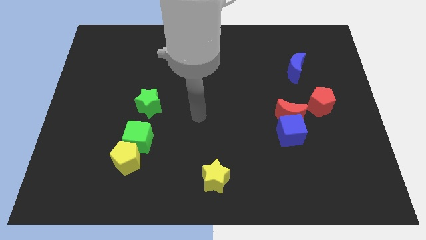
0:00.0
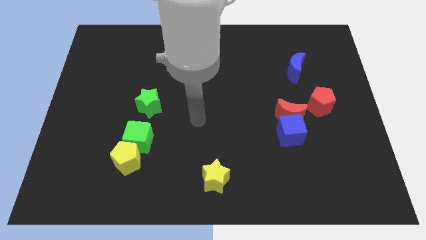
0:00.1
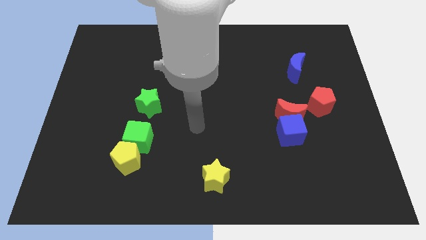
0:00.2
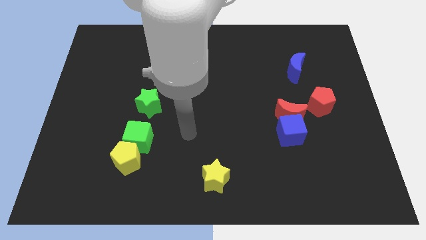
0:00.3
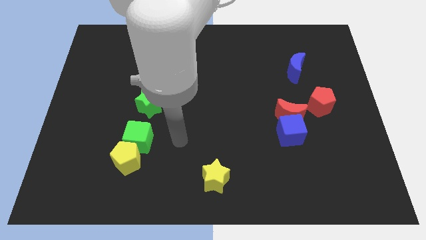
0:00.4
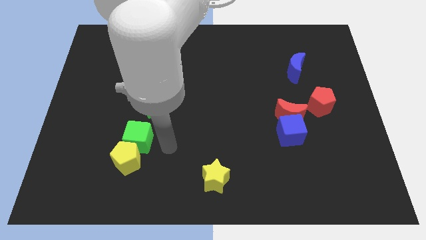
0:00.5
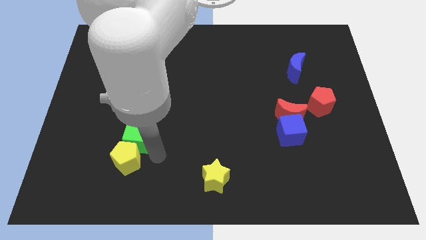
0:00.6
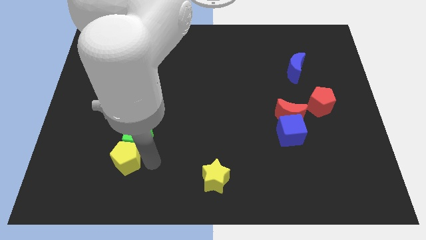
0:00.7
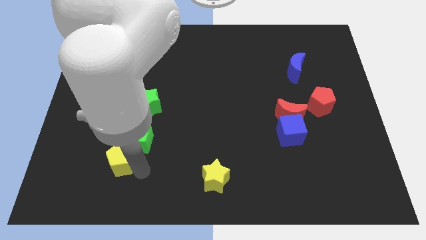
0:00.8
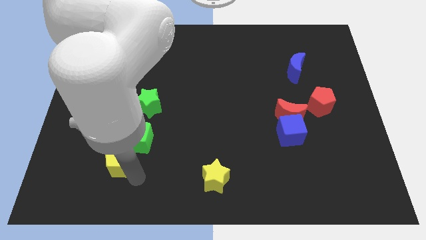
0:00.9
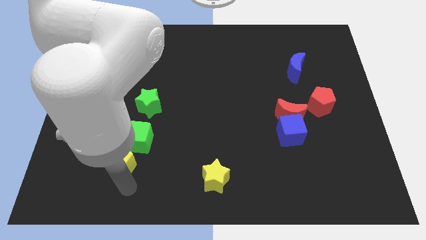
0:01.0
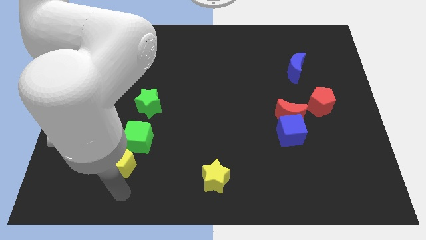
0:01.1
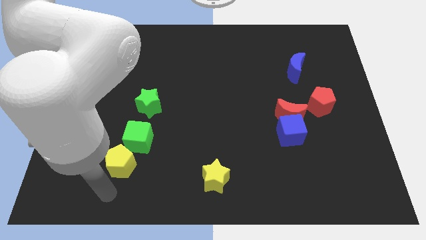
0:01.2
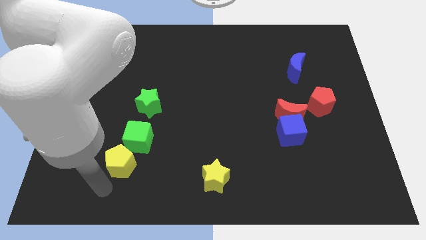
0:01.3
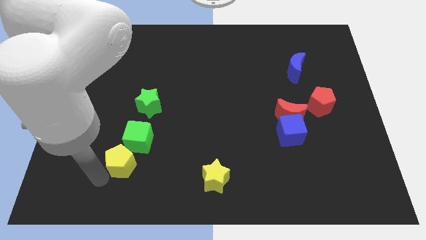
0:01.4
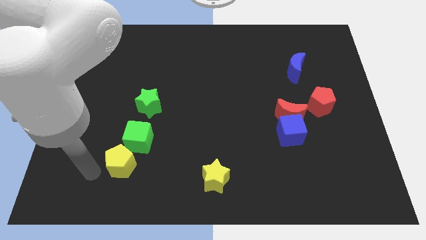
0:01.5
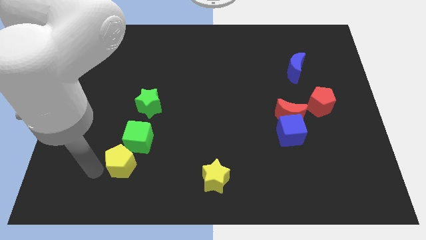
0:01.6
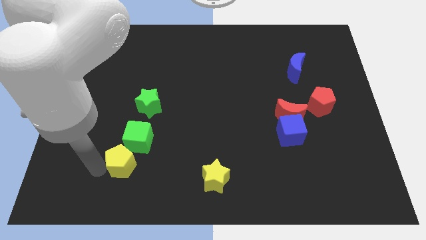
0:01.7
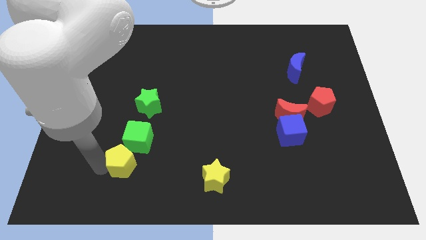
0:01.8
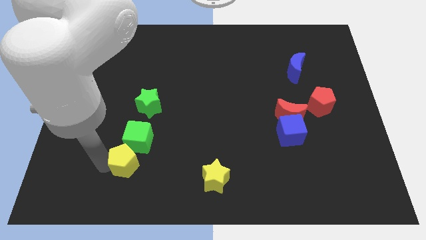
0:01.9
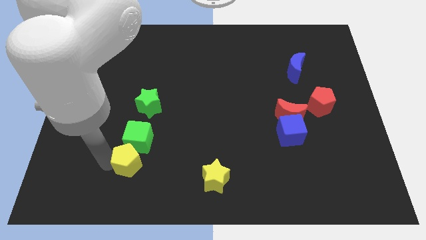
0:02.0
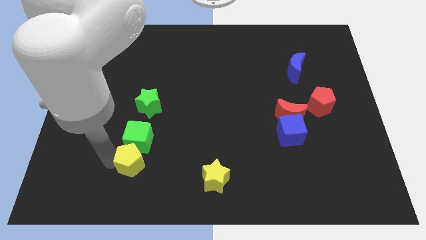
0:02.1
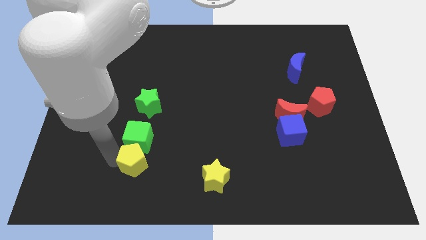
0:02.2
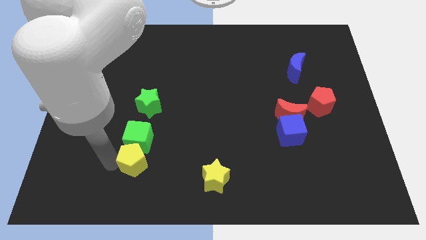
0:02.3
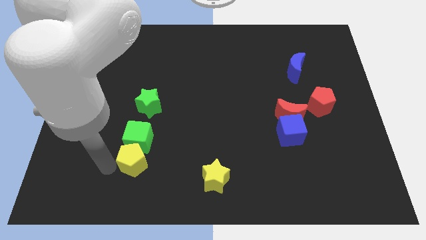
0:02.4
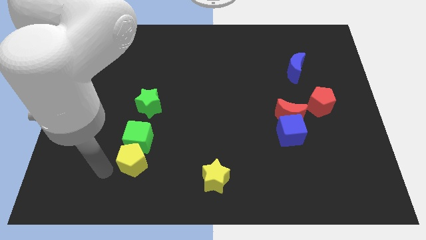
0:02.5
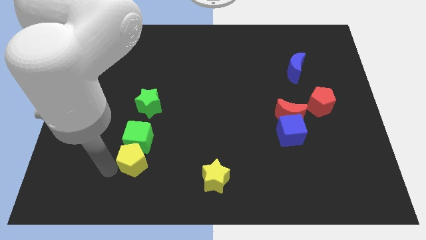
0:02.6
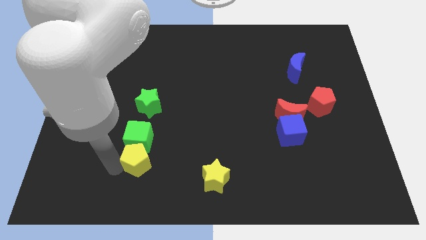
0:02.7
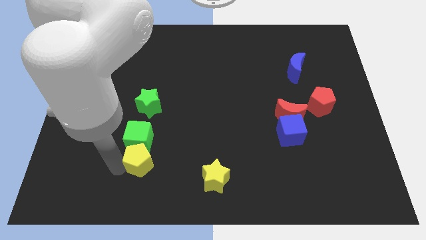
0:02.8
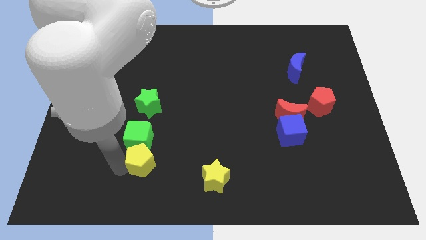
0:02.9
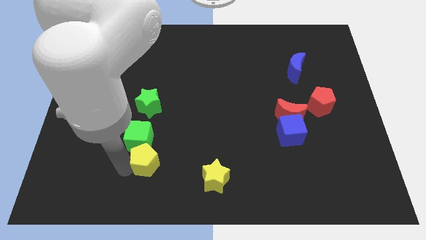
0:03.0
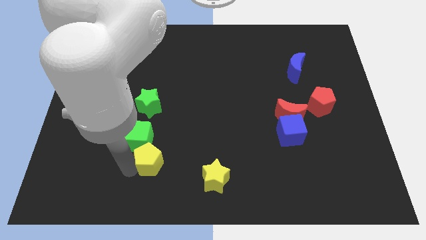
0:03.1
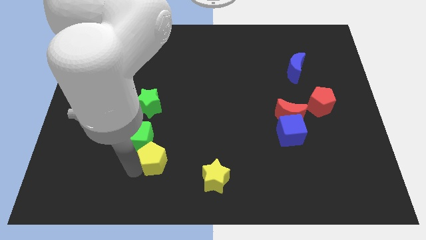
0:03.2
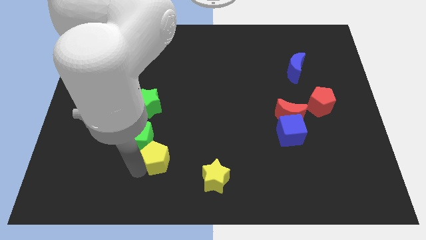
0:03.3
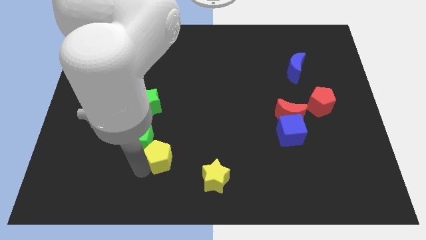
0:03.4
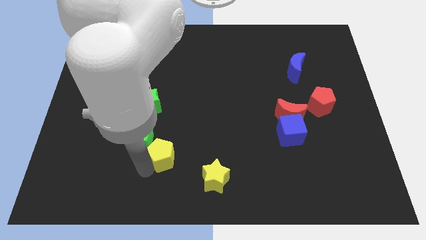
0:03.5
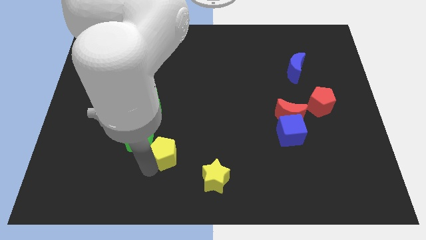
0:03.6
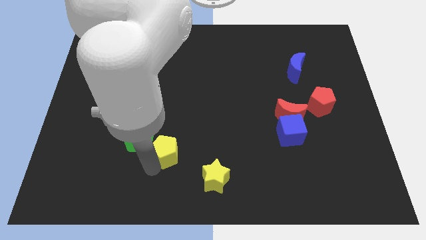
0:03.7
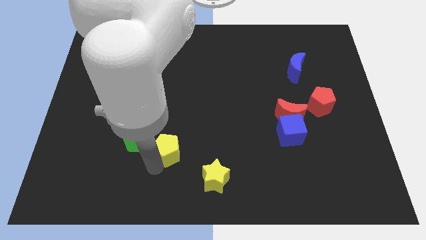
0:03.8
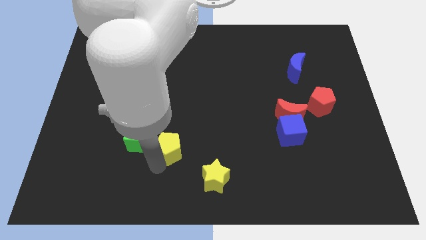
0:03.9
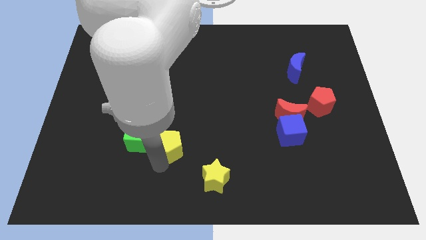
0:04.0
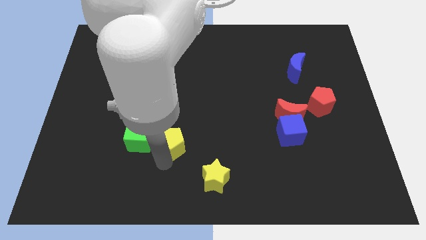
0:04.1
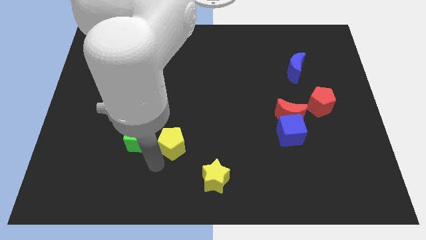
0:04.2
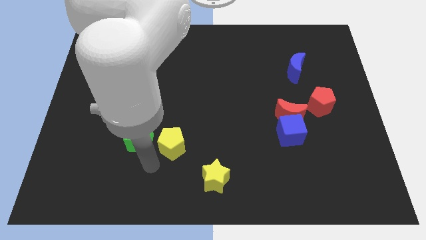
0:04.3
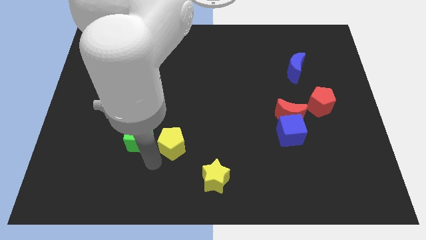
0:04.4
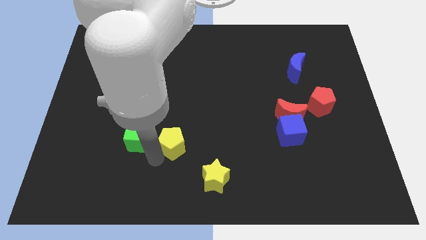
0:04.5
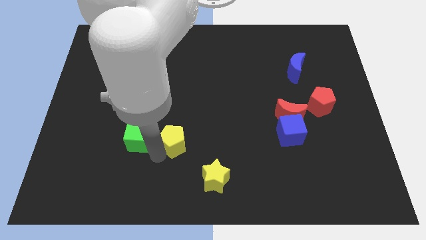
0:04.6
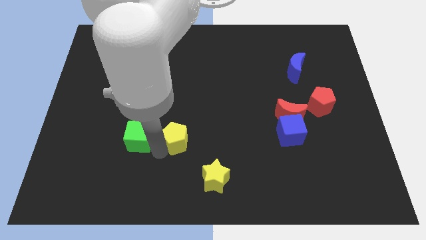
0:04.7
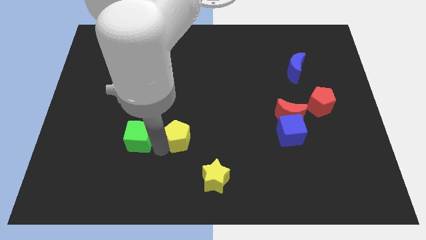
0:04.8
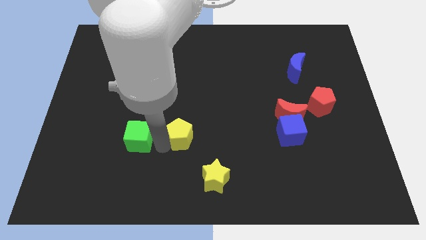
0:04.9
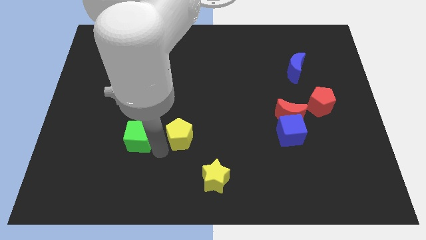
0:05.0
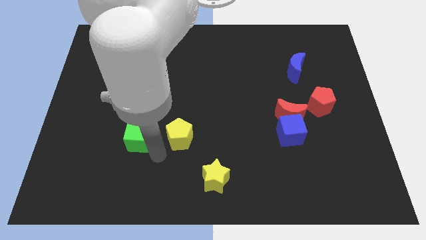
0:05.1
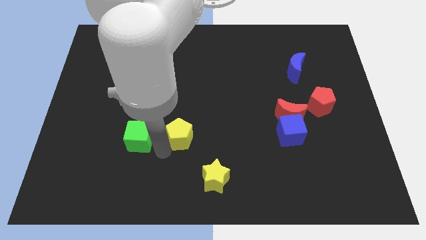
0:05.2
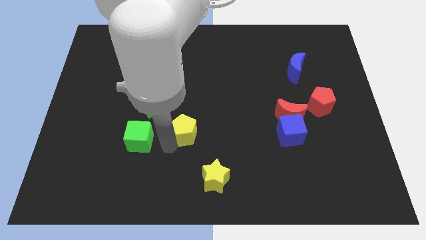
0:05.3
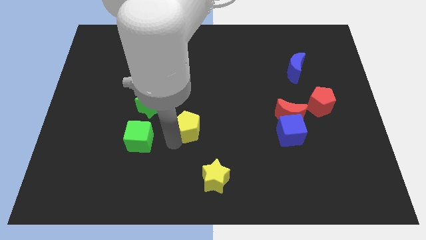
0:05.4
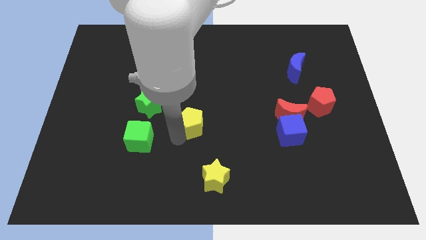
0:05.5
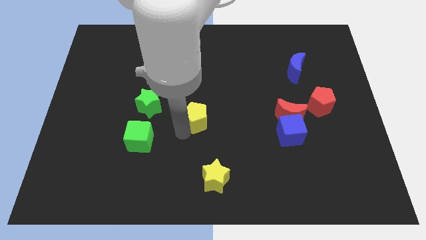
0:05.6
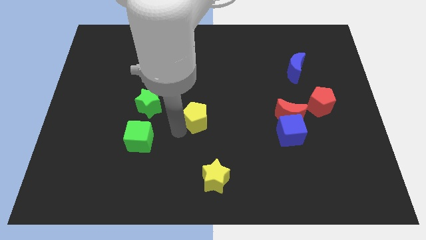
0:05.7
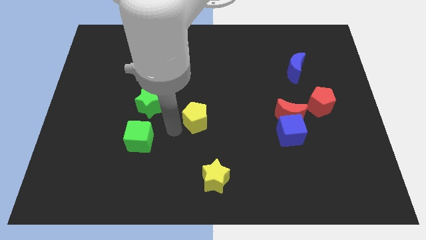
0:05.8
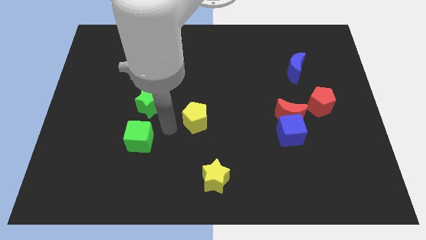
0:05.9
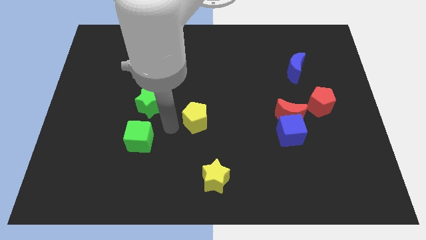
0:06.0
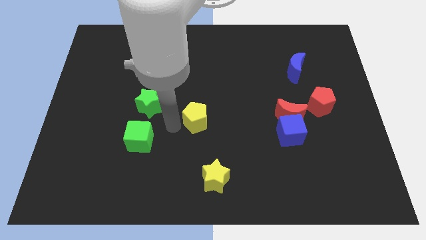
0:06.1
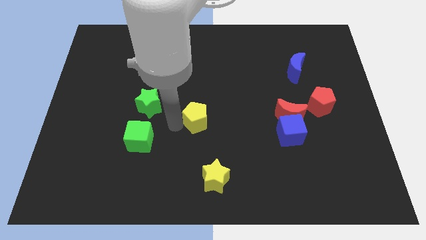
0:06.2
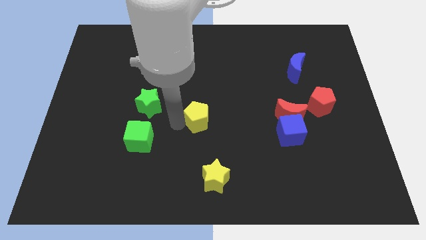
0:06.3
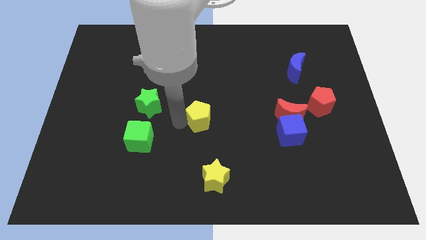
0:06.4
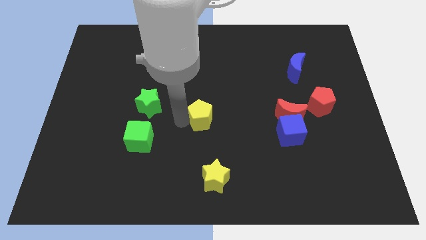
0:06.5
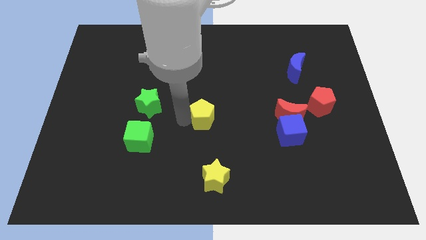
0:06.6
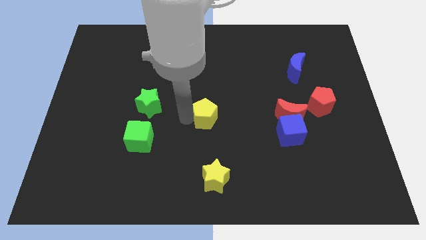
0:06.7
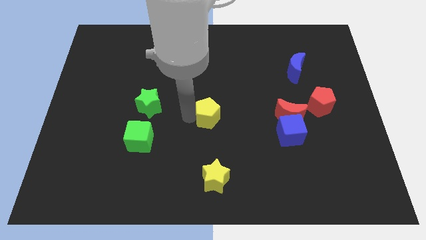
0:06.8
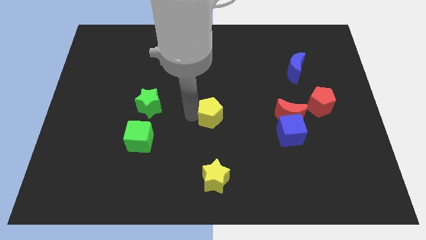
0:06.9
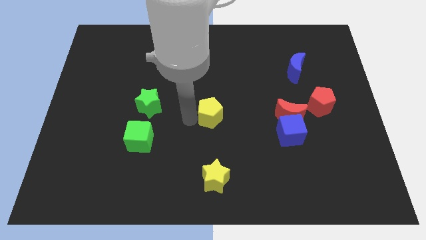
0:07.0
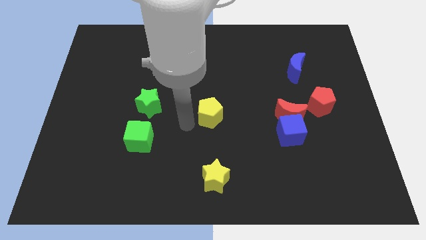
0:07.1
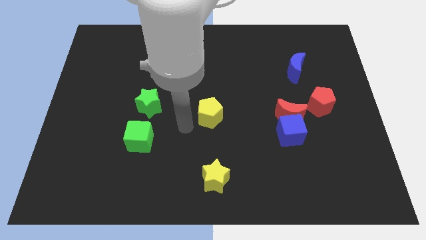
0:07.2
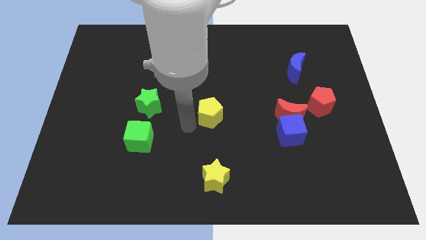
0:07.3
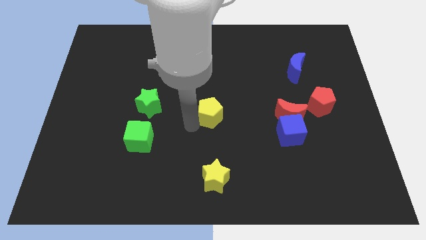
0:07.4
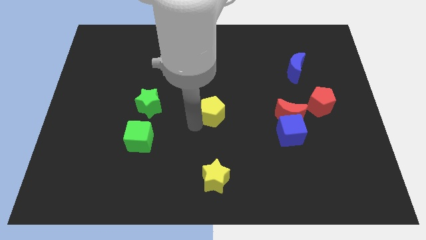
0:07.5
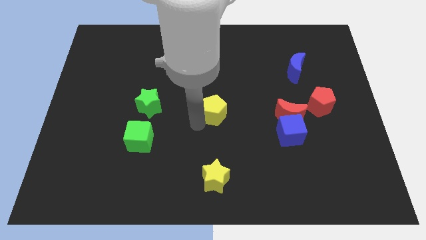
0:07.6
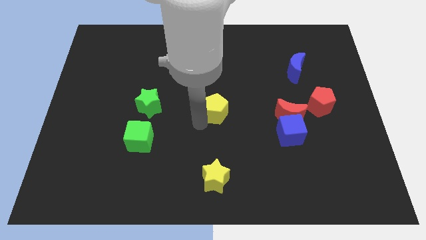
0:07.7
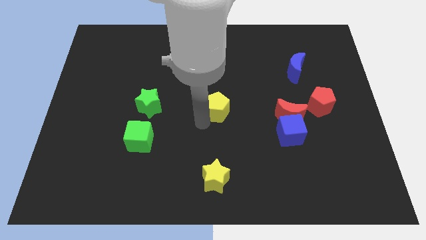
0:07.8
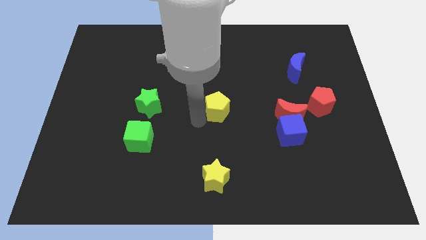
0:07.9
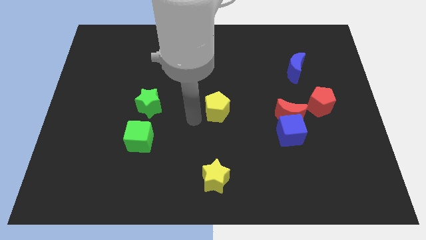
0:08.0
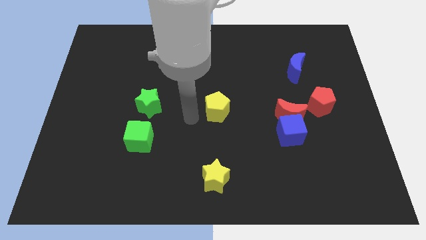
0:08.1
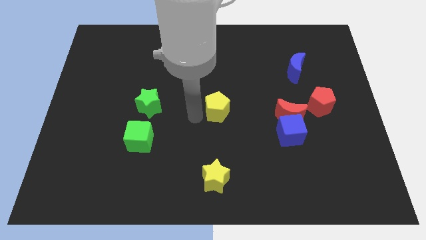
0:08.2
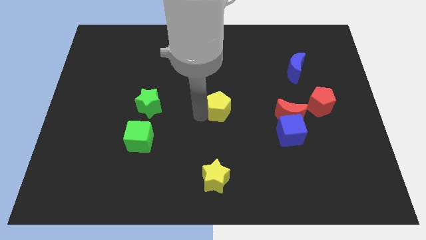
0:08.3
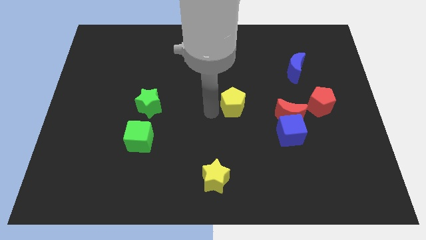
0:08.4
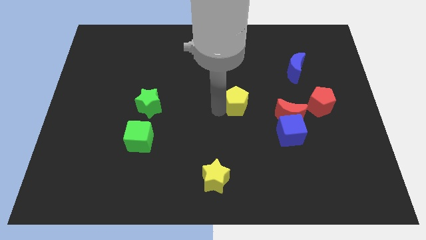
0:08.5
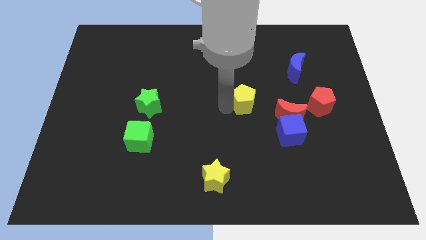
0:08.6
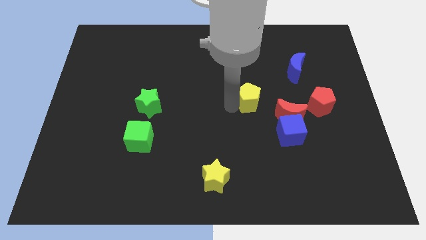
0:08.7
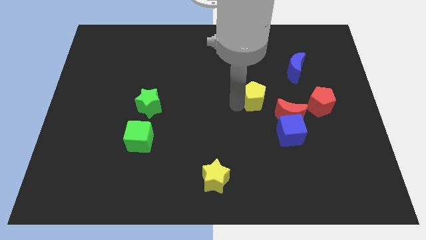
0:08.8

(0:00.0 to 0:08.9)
put the yellow pentagon just left of the red pentagon
